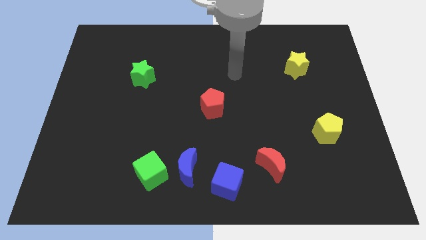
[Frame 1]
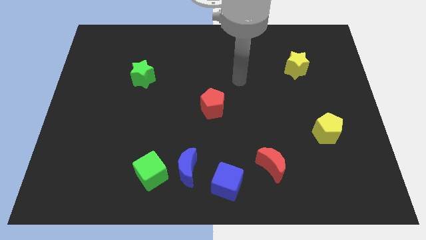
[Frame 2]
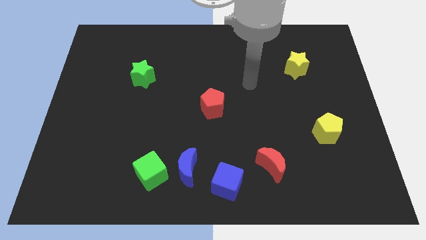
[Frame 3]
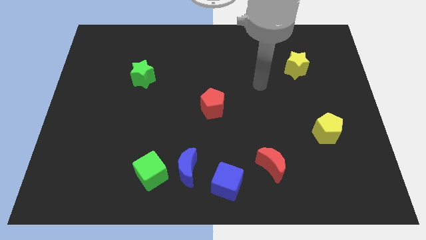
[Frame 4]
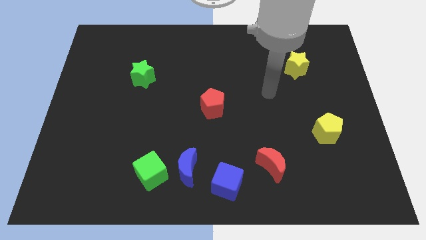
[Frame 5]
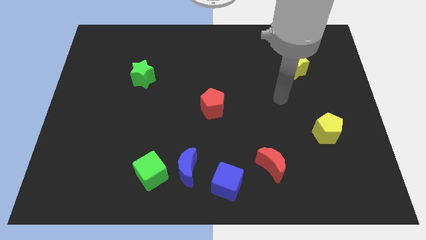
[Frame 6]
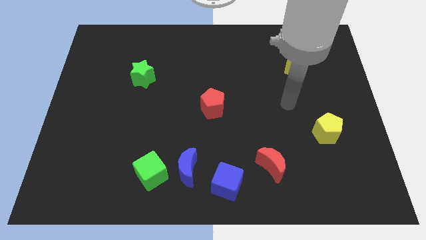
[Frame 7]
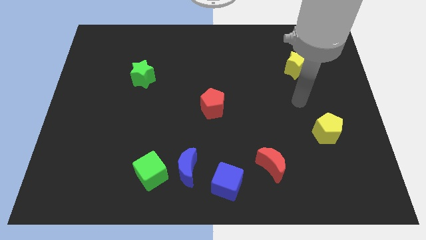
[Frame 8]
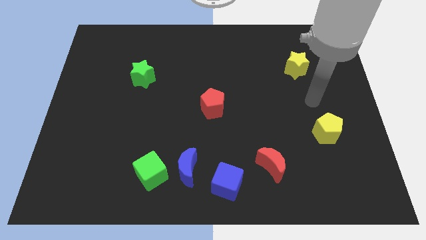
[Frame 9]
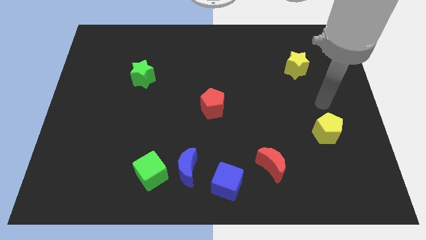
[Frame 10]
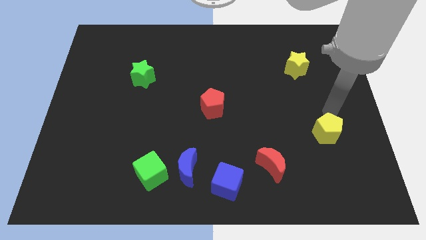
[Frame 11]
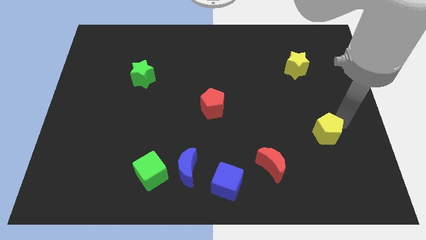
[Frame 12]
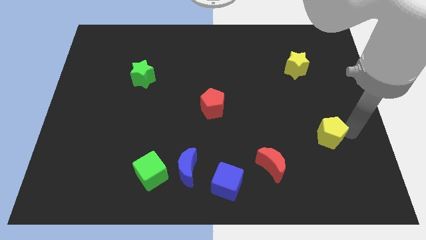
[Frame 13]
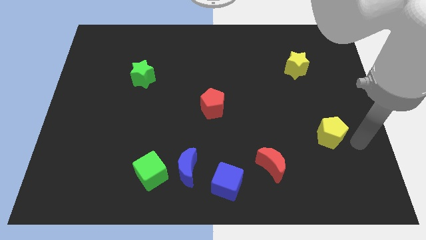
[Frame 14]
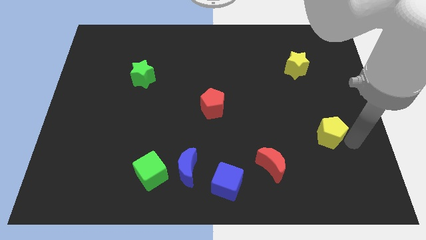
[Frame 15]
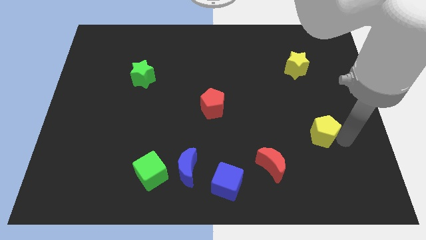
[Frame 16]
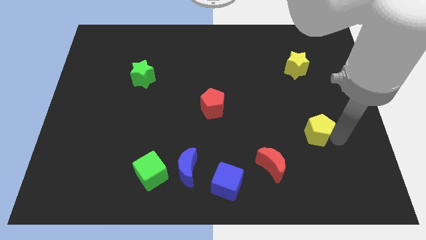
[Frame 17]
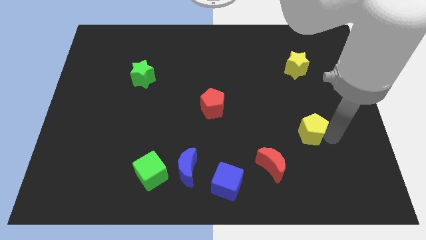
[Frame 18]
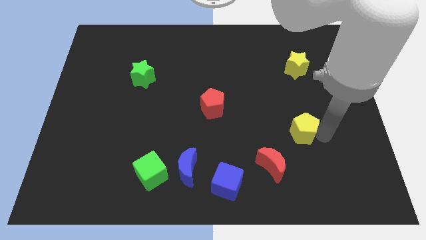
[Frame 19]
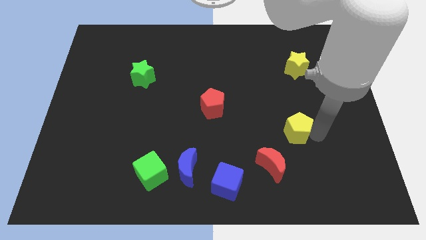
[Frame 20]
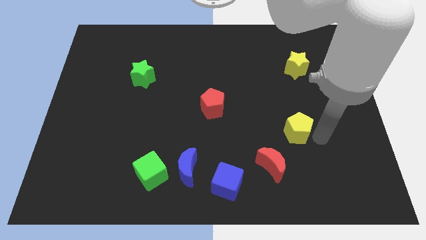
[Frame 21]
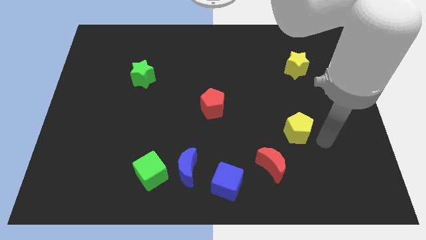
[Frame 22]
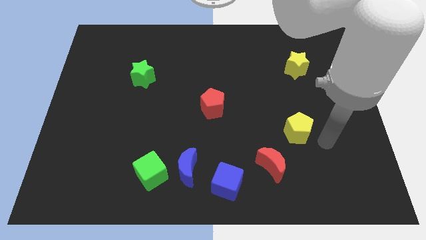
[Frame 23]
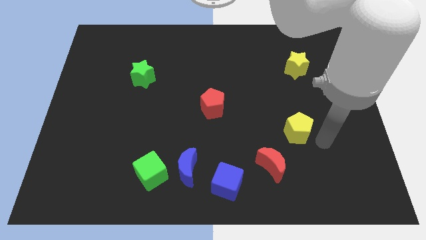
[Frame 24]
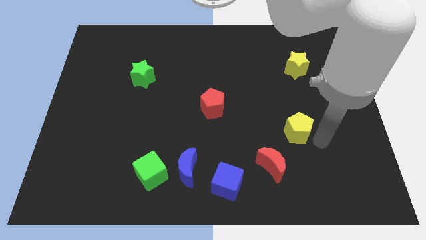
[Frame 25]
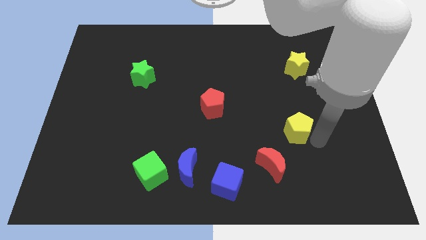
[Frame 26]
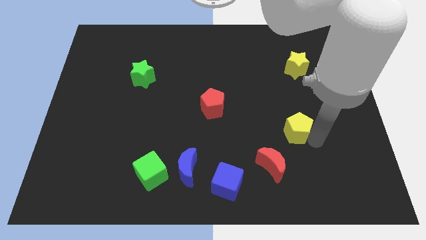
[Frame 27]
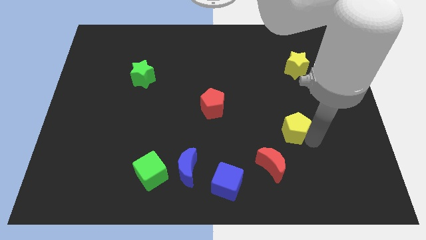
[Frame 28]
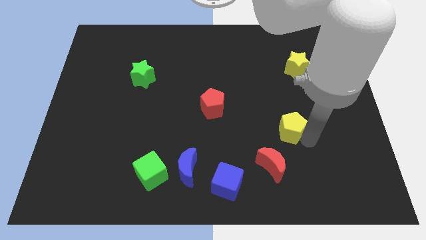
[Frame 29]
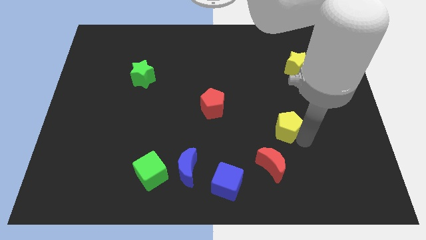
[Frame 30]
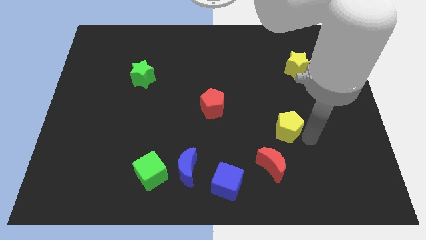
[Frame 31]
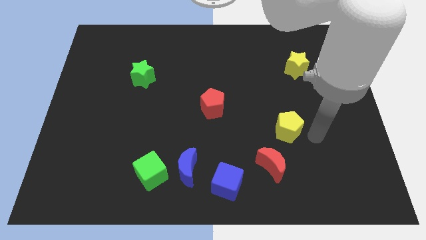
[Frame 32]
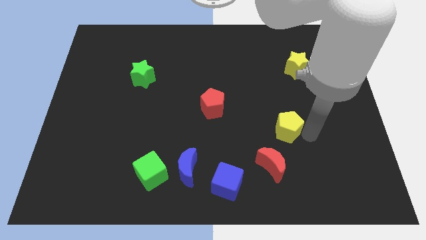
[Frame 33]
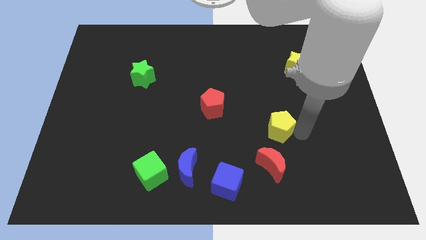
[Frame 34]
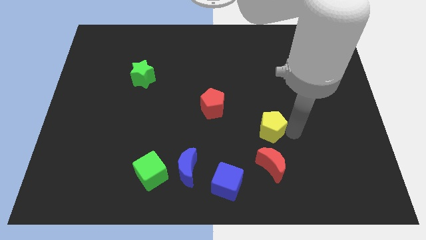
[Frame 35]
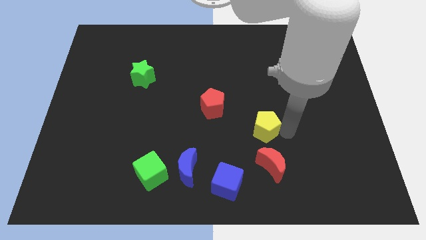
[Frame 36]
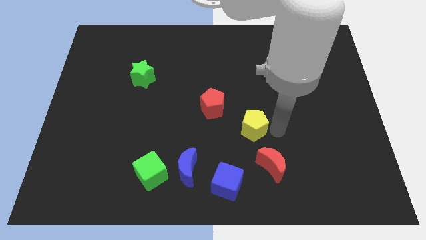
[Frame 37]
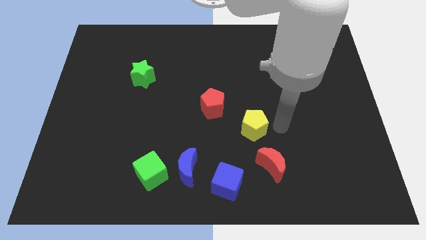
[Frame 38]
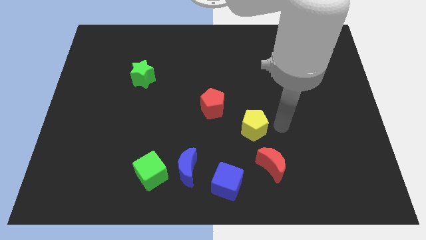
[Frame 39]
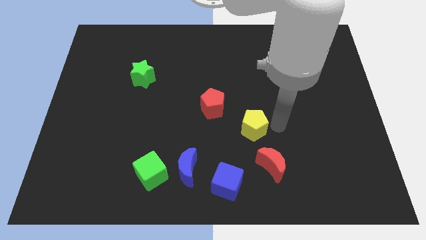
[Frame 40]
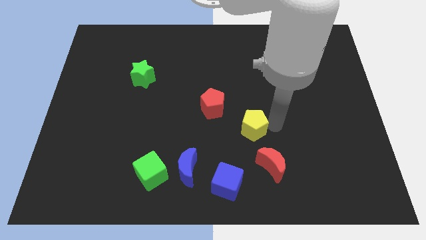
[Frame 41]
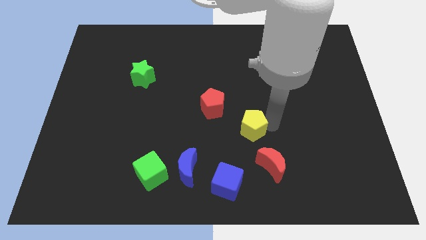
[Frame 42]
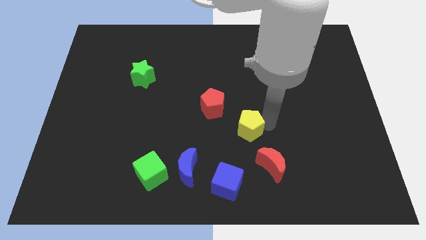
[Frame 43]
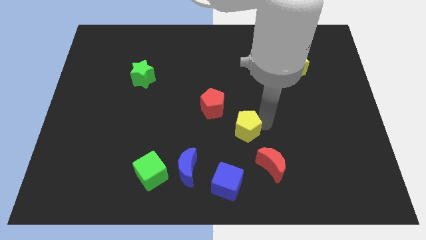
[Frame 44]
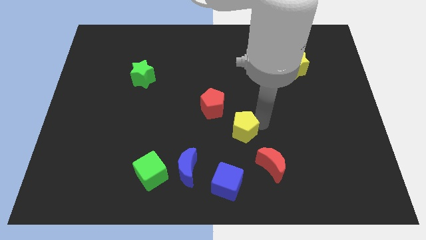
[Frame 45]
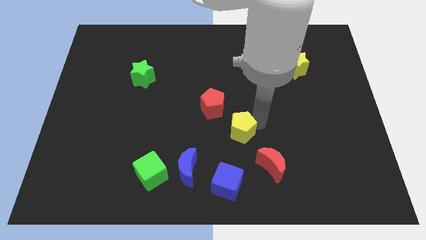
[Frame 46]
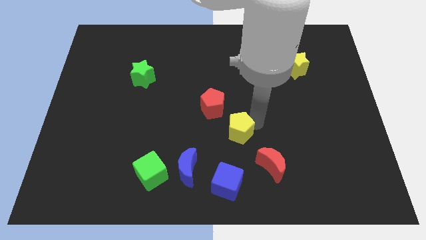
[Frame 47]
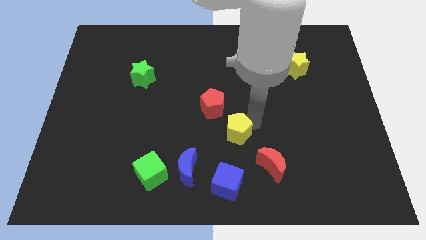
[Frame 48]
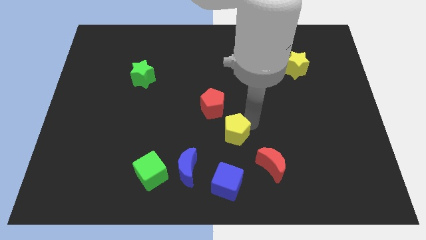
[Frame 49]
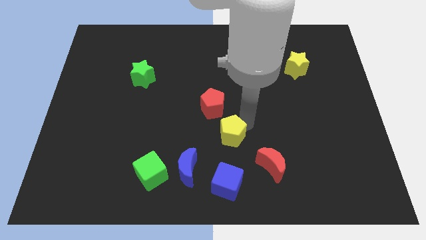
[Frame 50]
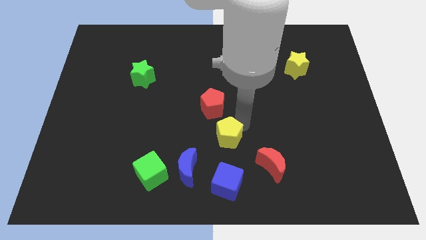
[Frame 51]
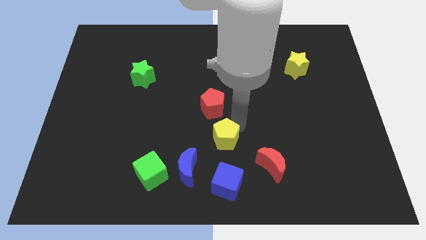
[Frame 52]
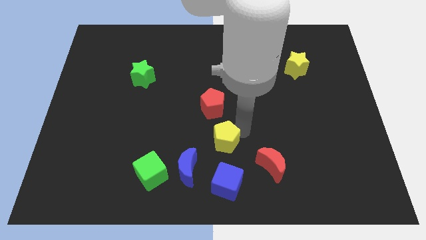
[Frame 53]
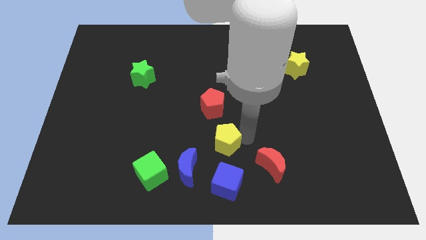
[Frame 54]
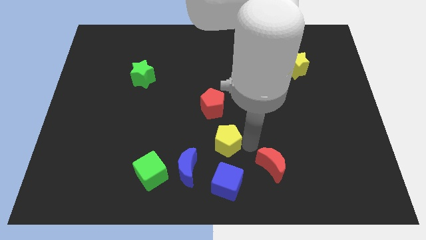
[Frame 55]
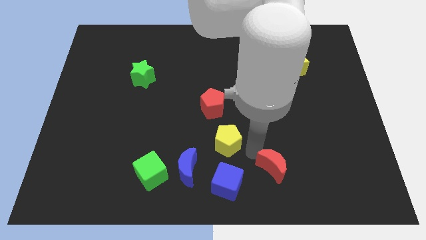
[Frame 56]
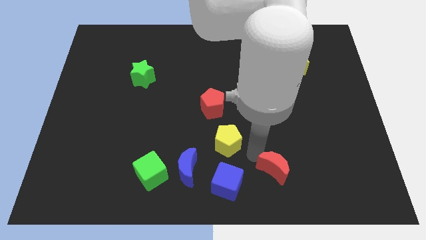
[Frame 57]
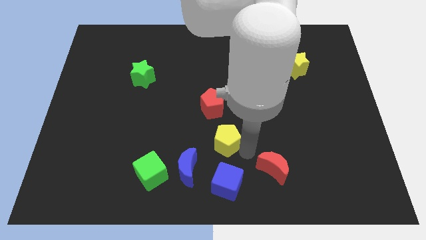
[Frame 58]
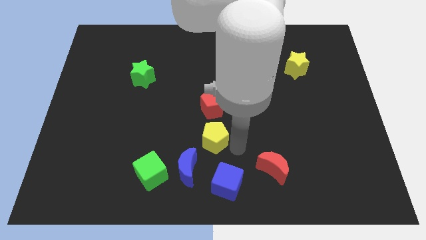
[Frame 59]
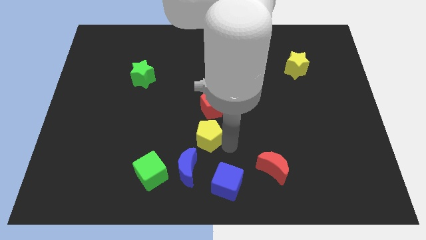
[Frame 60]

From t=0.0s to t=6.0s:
put the yellow pentagon to the top side of the blue moon

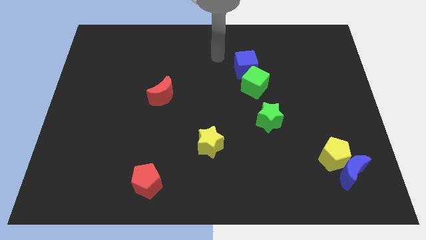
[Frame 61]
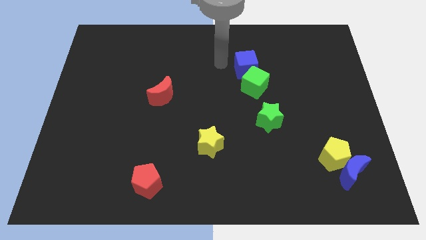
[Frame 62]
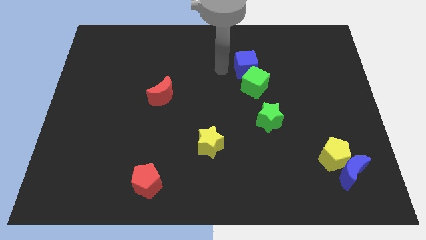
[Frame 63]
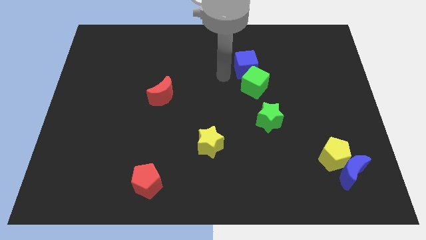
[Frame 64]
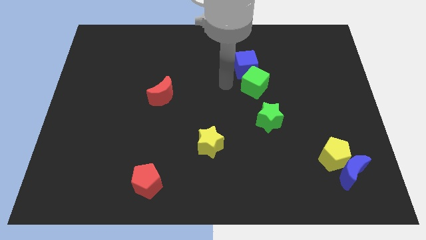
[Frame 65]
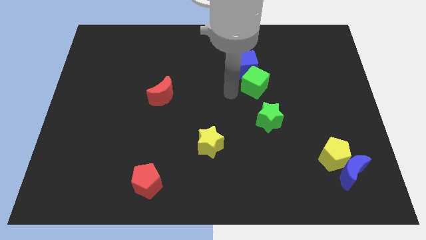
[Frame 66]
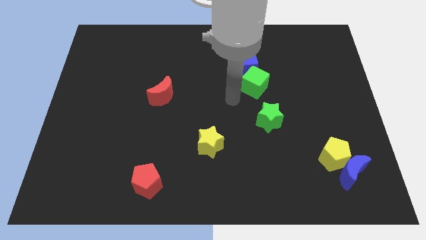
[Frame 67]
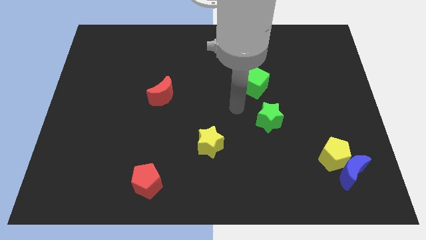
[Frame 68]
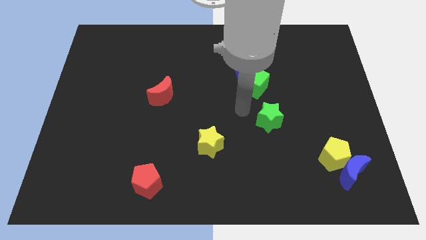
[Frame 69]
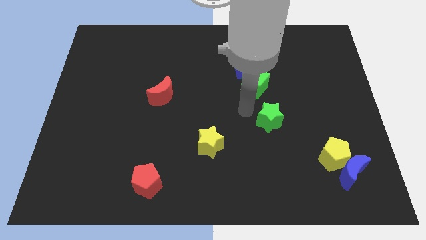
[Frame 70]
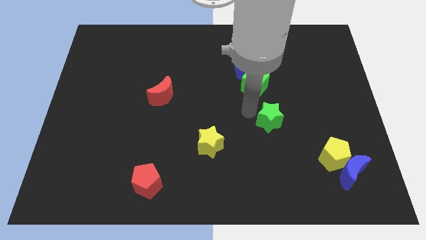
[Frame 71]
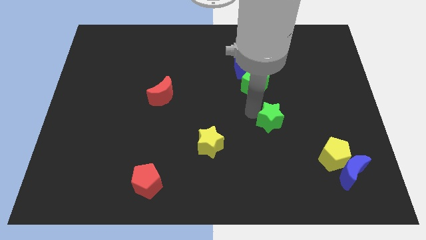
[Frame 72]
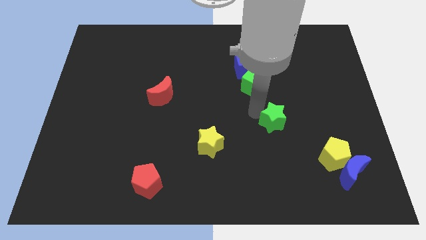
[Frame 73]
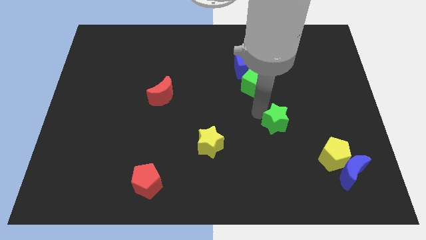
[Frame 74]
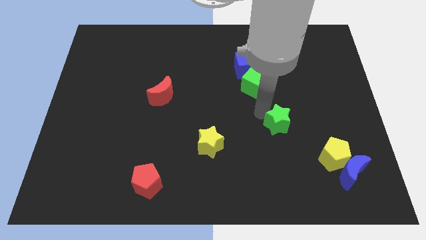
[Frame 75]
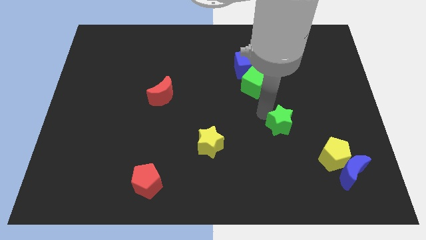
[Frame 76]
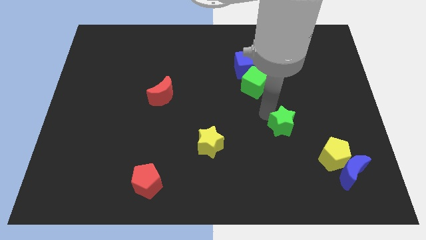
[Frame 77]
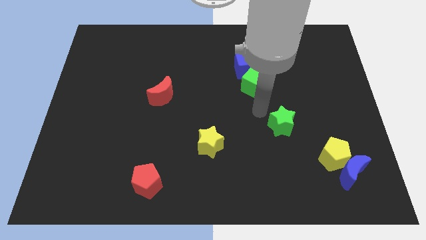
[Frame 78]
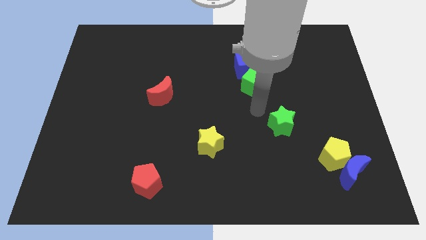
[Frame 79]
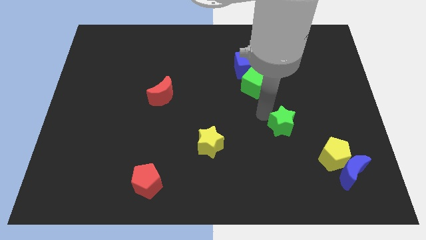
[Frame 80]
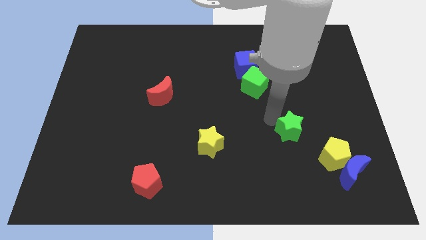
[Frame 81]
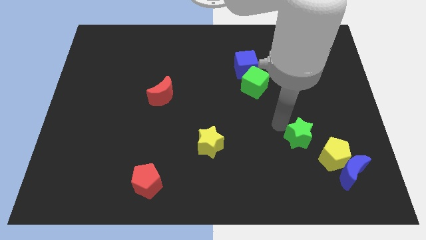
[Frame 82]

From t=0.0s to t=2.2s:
push the green star diagonally up and to the left of the blue moon
